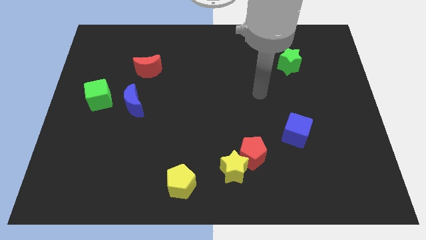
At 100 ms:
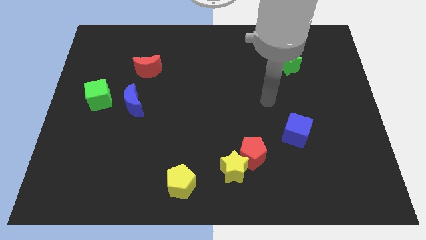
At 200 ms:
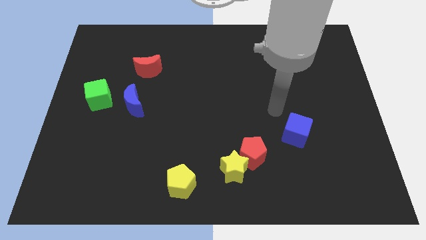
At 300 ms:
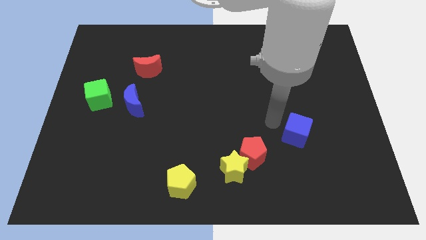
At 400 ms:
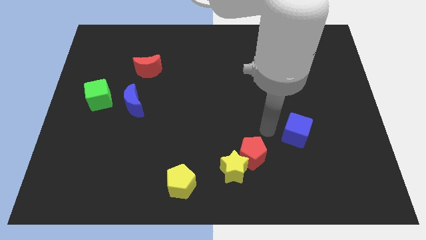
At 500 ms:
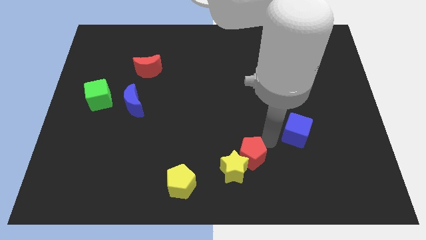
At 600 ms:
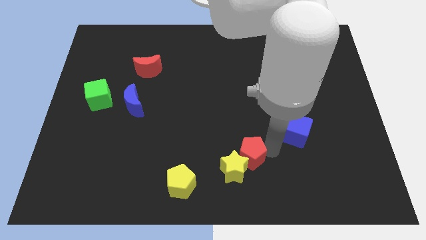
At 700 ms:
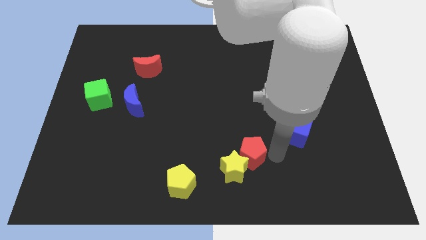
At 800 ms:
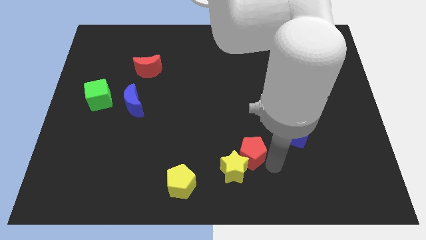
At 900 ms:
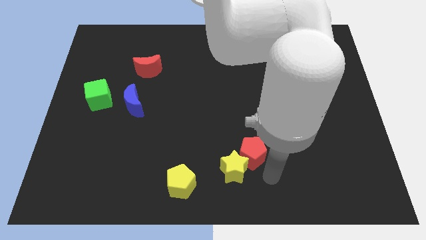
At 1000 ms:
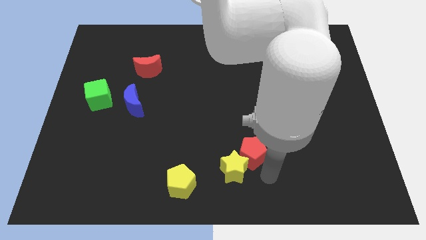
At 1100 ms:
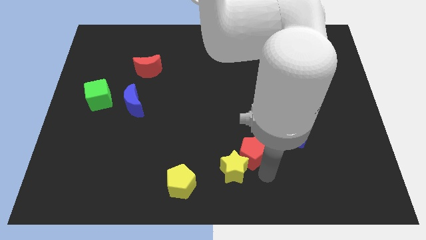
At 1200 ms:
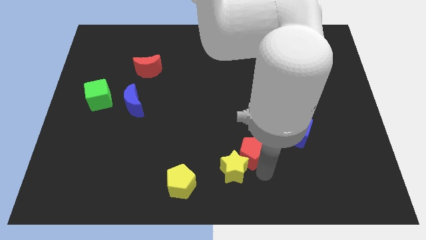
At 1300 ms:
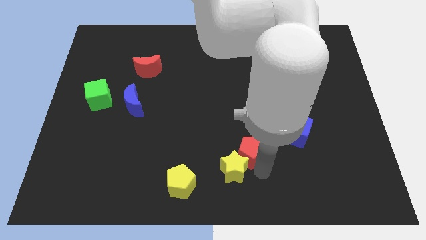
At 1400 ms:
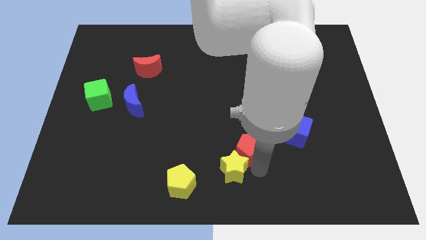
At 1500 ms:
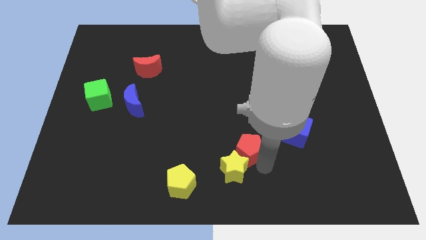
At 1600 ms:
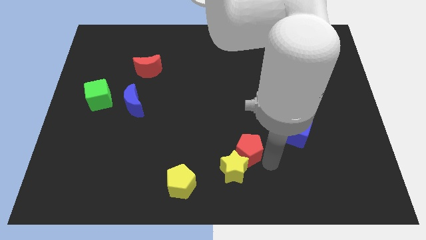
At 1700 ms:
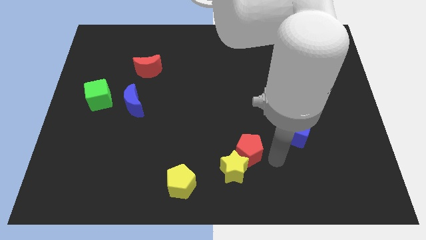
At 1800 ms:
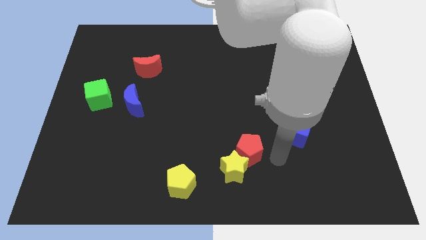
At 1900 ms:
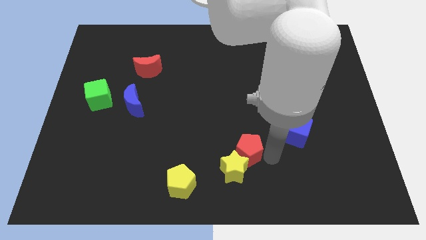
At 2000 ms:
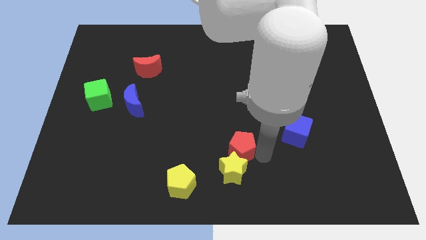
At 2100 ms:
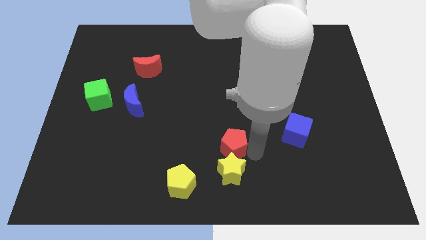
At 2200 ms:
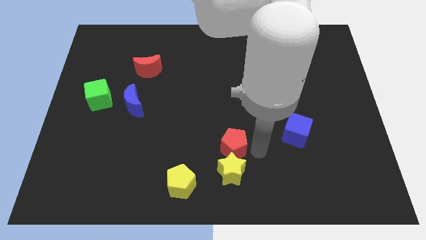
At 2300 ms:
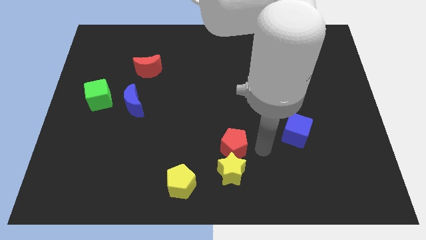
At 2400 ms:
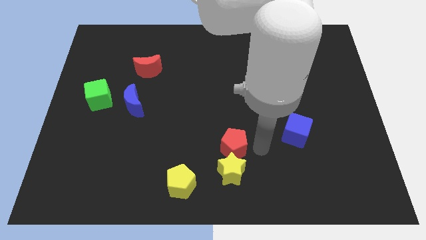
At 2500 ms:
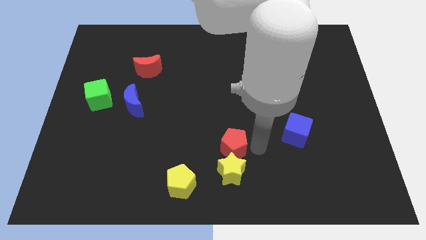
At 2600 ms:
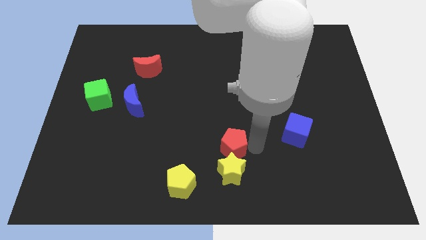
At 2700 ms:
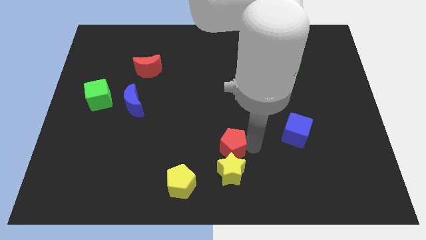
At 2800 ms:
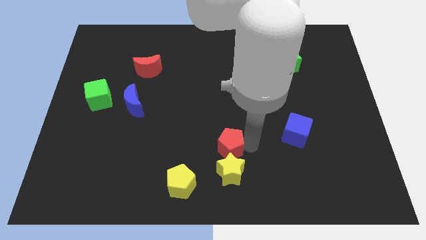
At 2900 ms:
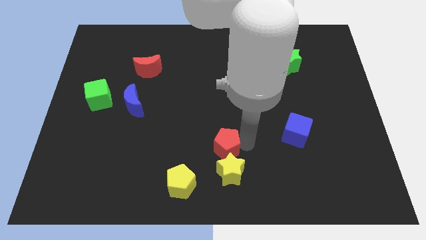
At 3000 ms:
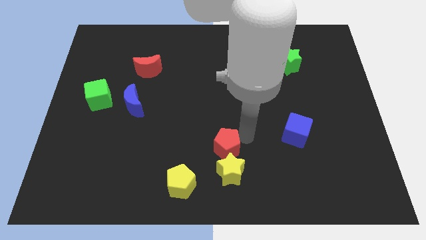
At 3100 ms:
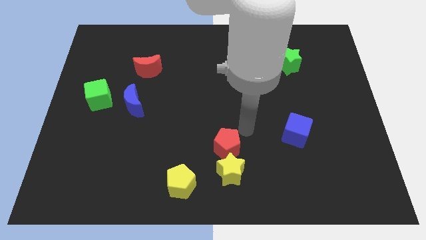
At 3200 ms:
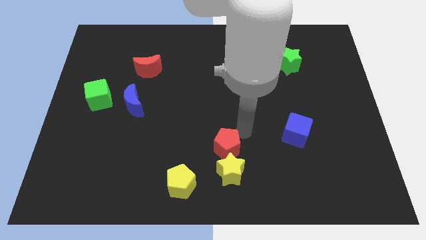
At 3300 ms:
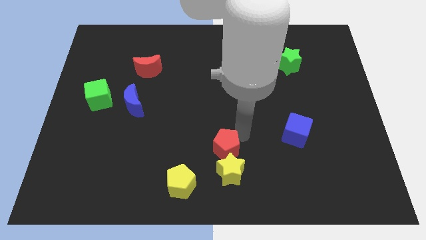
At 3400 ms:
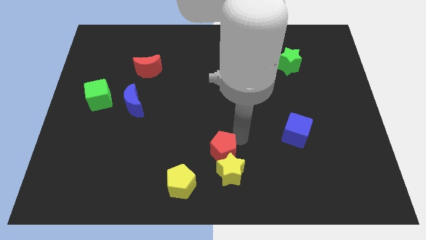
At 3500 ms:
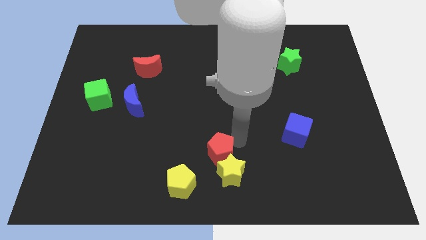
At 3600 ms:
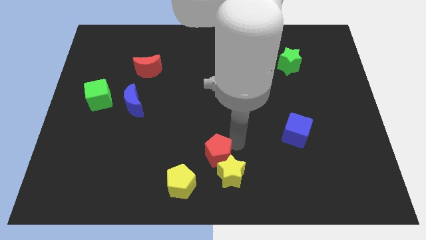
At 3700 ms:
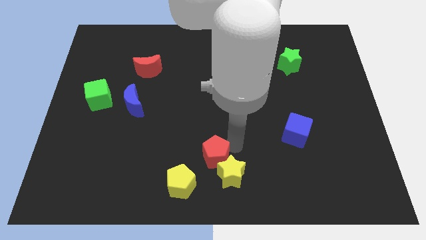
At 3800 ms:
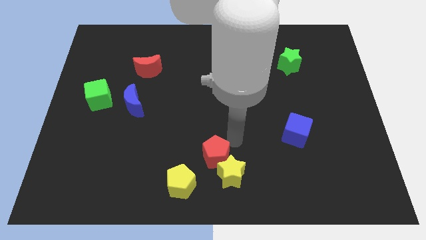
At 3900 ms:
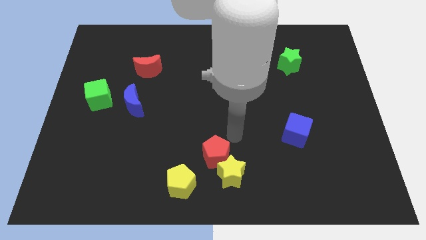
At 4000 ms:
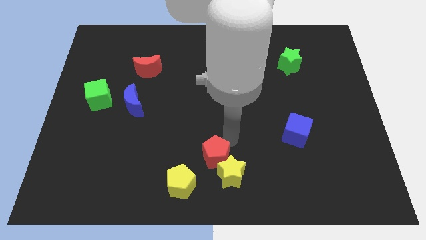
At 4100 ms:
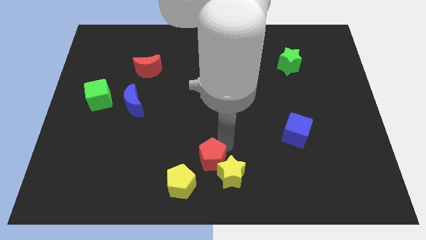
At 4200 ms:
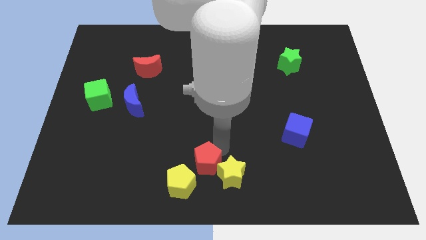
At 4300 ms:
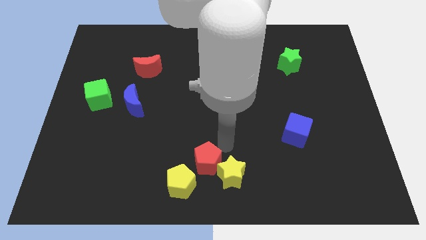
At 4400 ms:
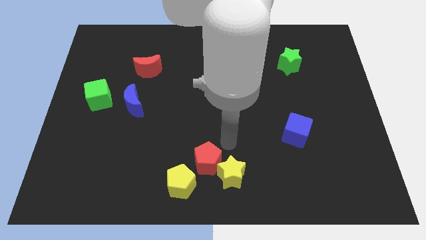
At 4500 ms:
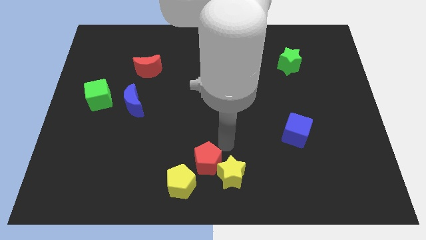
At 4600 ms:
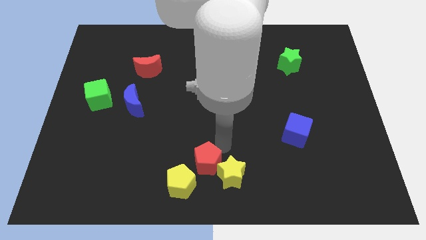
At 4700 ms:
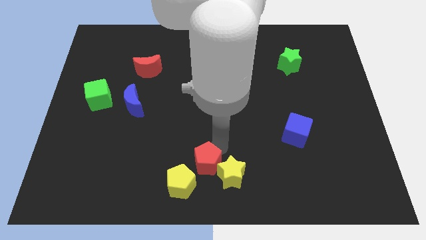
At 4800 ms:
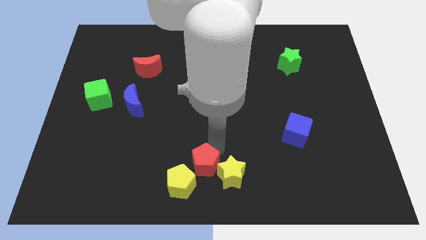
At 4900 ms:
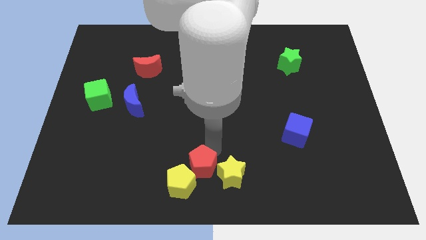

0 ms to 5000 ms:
put the red pentagon towards the yellow pentagon

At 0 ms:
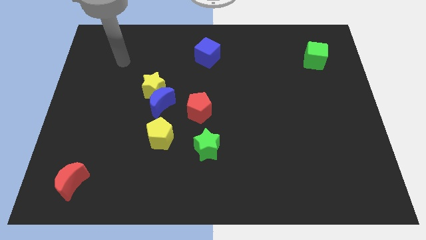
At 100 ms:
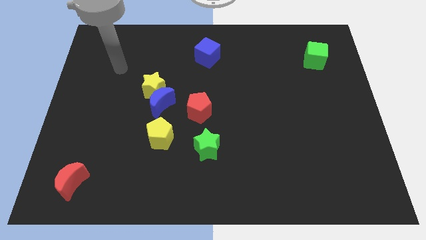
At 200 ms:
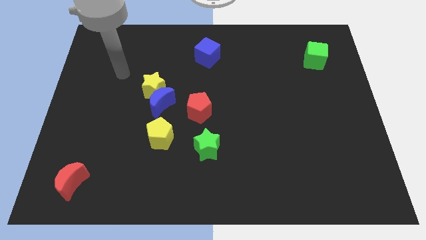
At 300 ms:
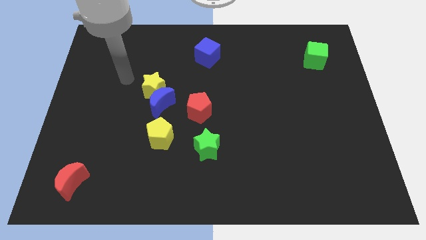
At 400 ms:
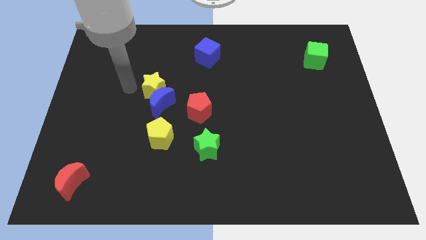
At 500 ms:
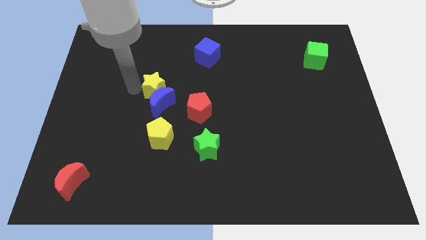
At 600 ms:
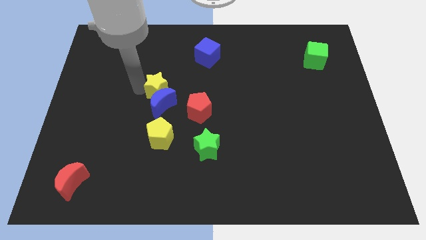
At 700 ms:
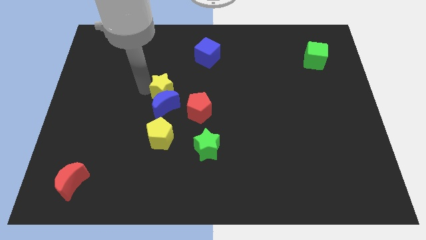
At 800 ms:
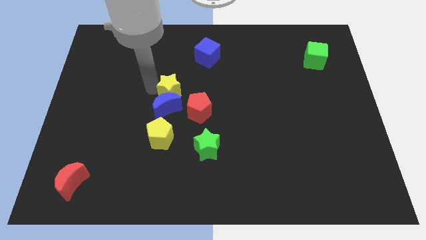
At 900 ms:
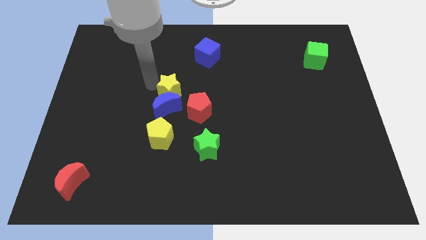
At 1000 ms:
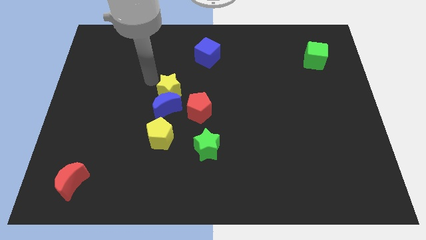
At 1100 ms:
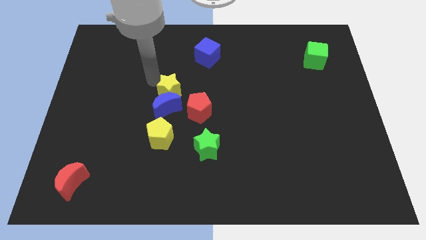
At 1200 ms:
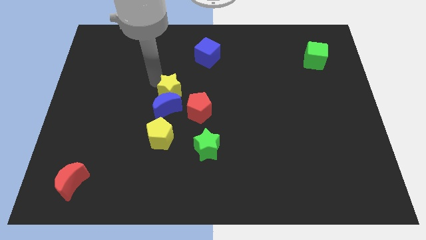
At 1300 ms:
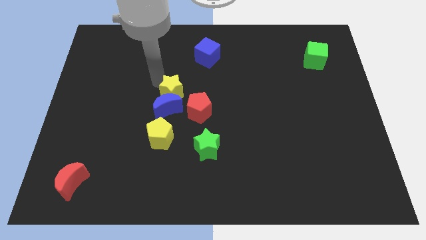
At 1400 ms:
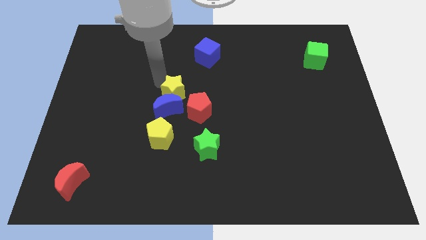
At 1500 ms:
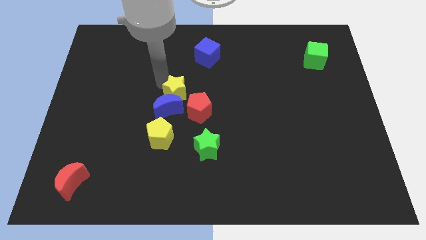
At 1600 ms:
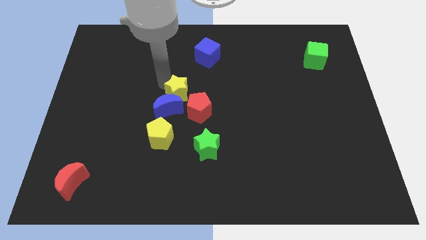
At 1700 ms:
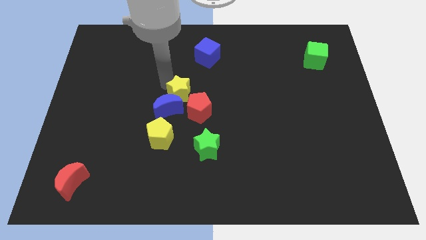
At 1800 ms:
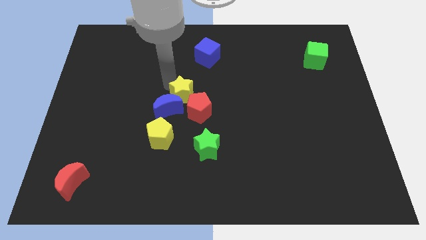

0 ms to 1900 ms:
slide the yellow star to the red pentagon
